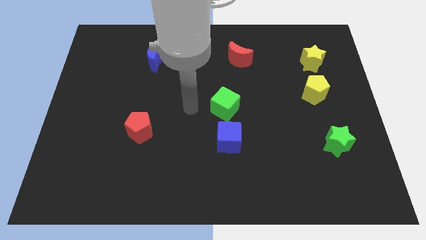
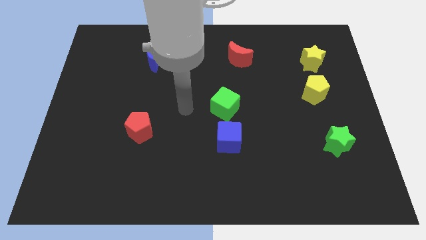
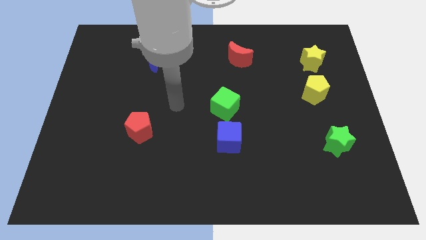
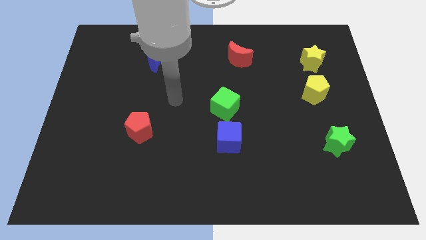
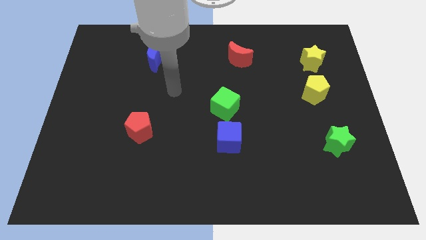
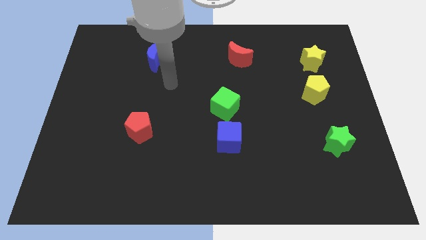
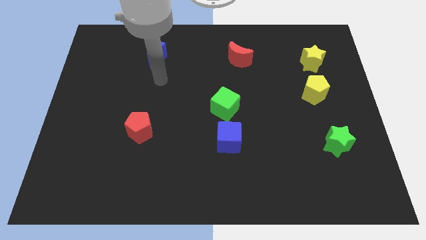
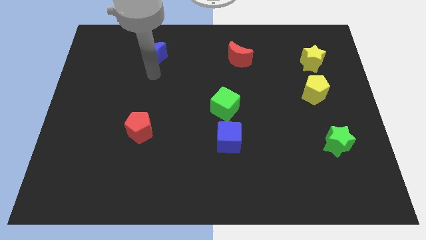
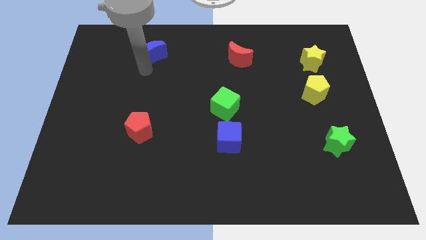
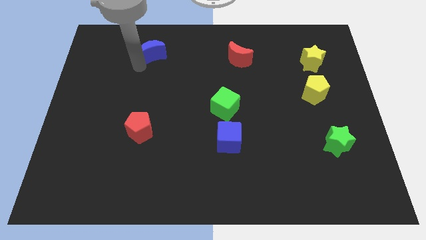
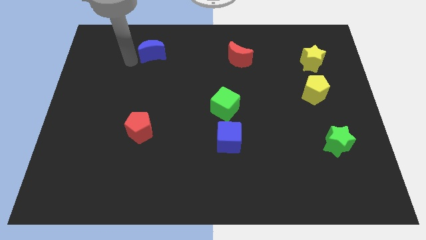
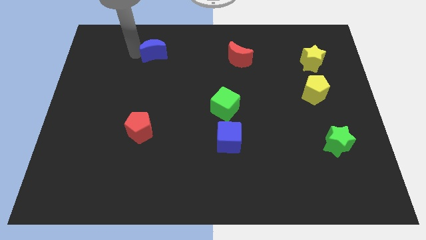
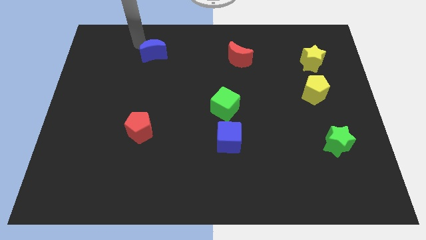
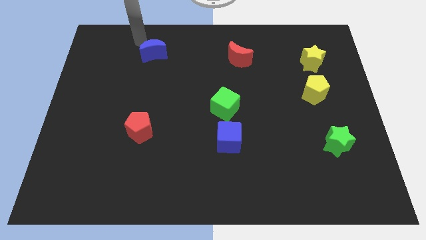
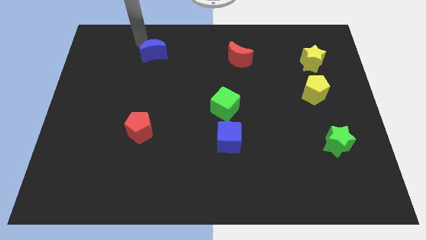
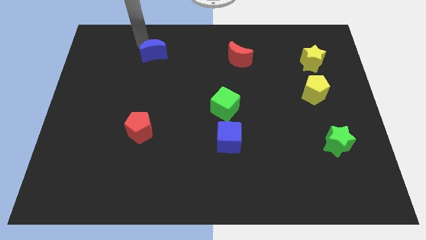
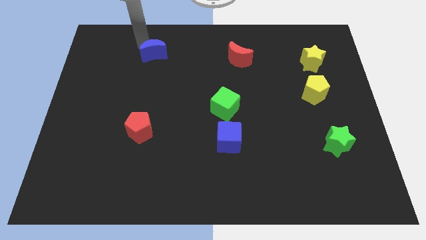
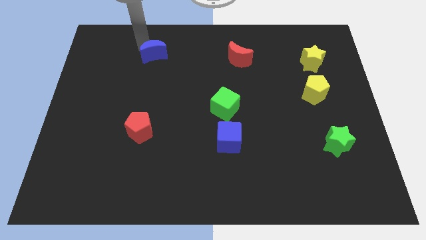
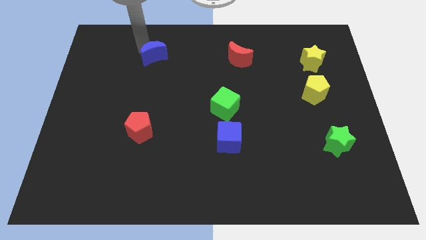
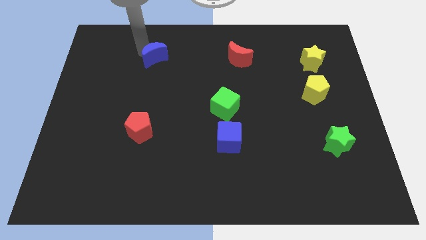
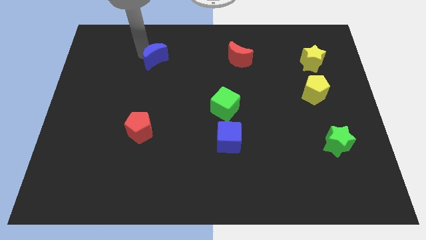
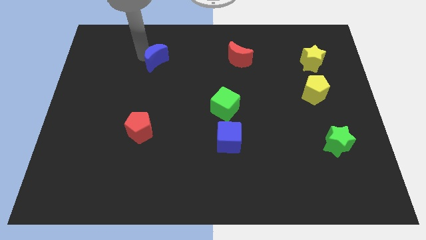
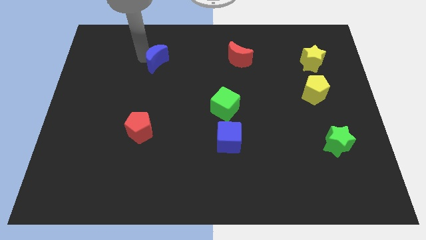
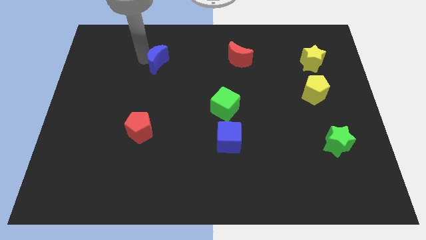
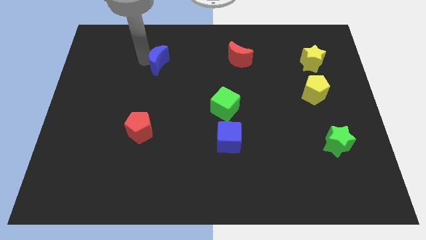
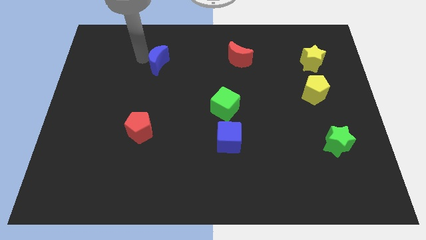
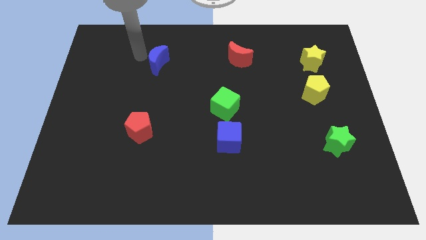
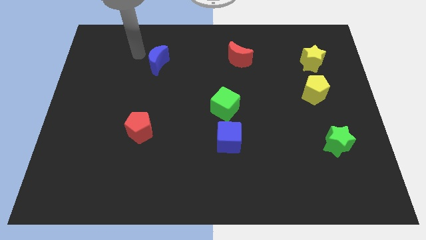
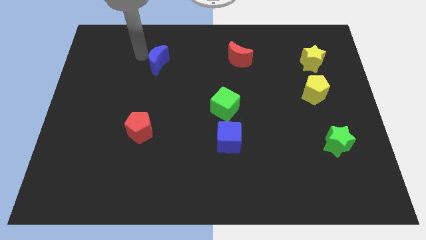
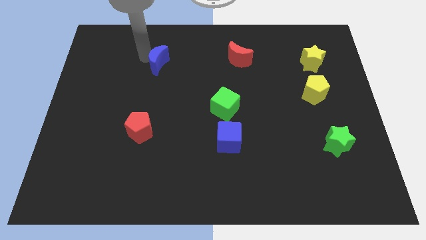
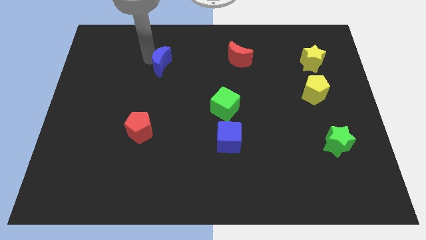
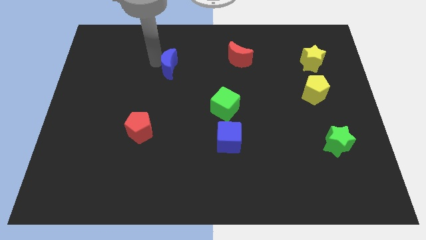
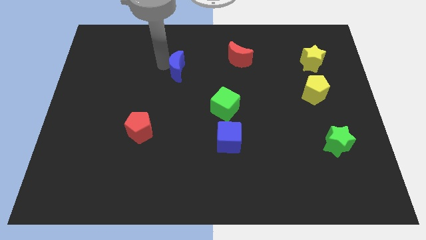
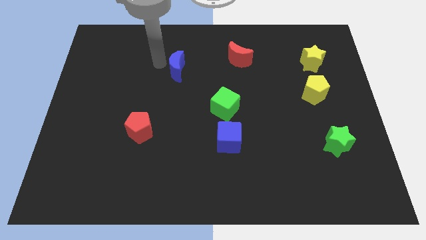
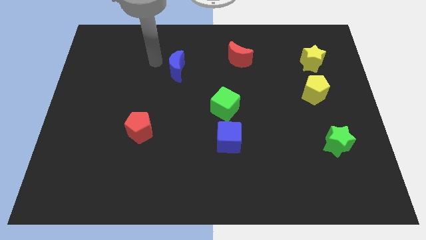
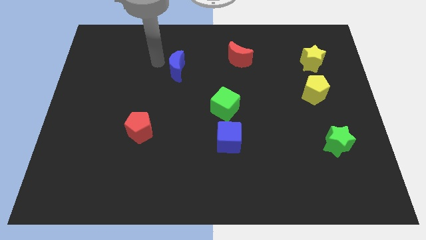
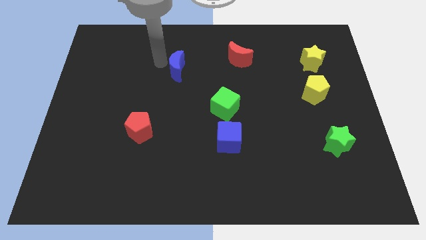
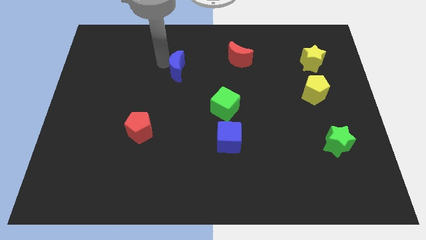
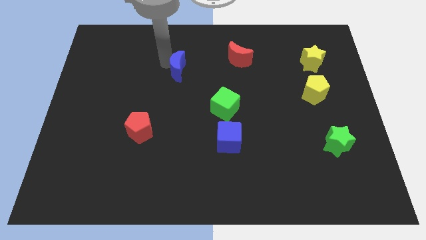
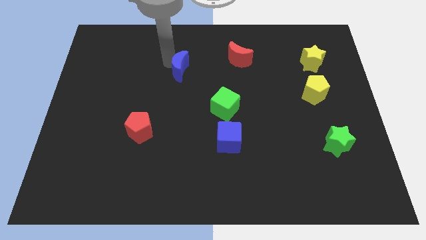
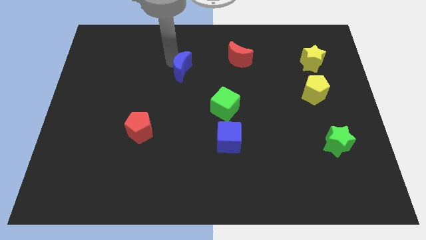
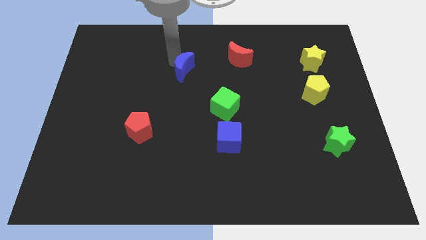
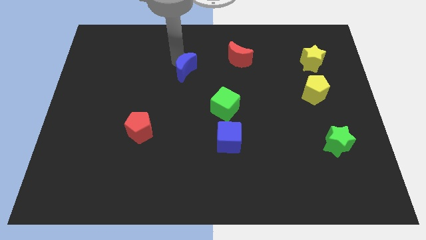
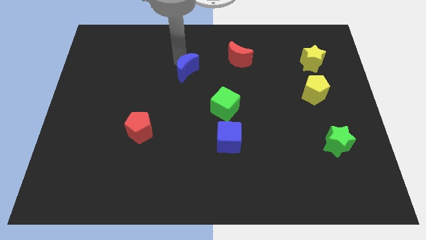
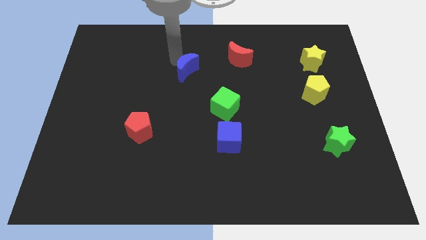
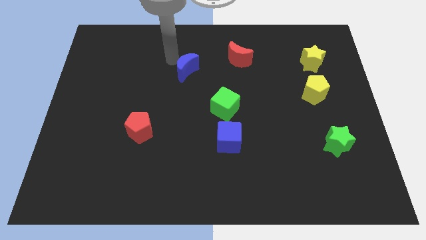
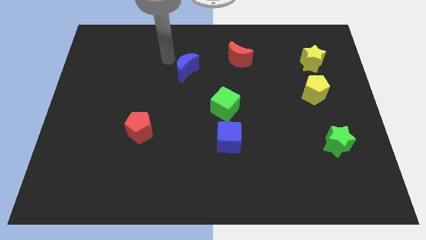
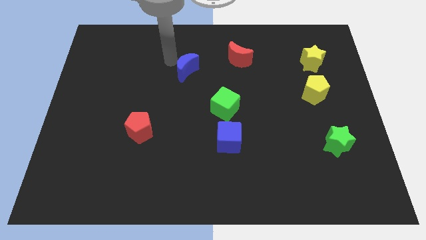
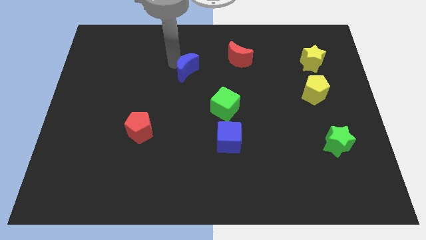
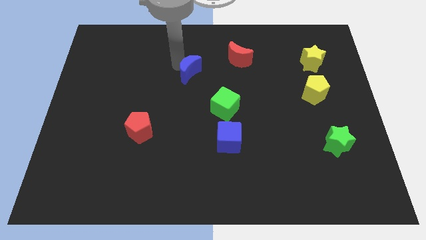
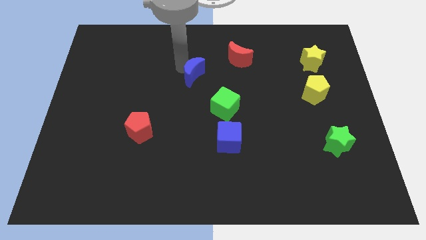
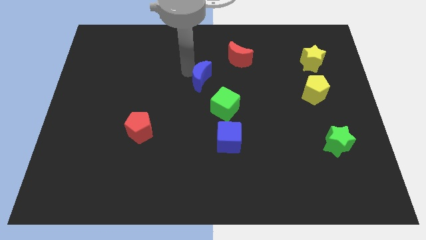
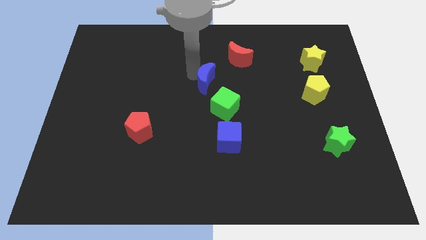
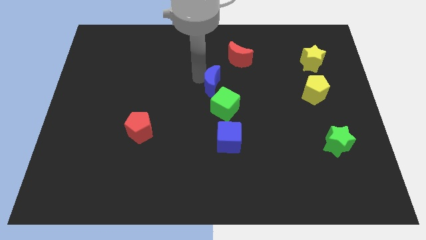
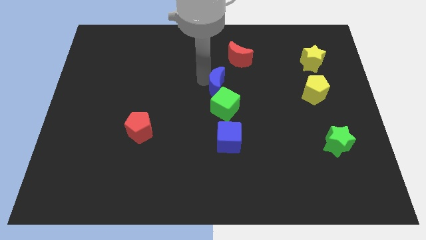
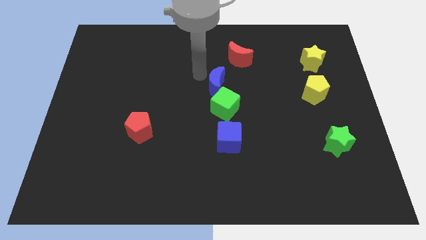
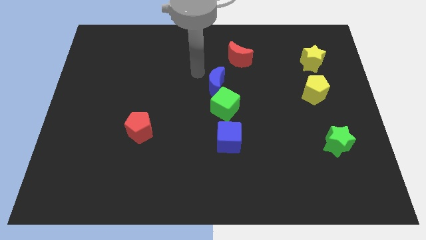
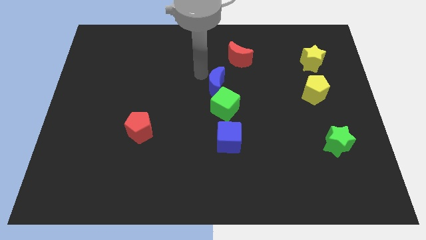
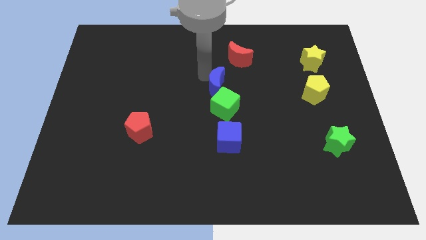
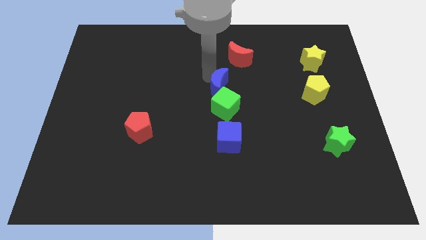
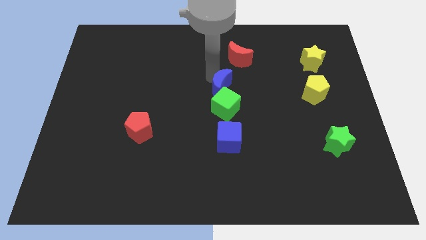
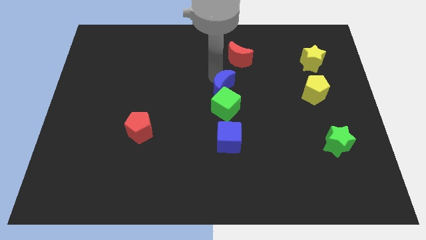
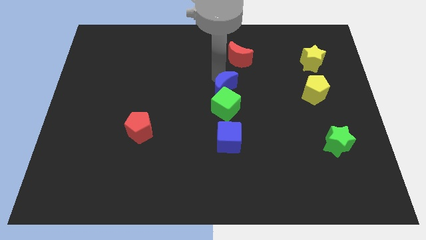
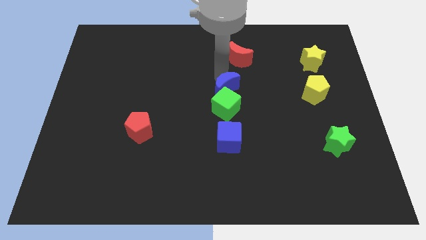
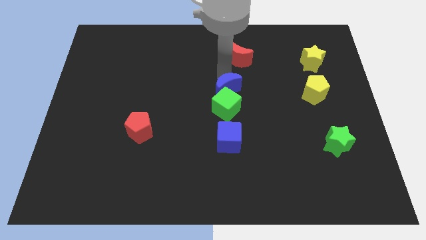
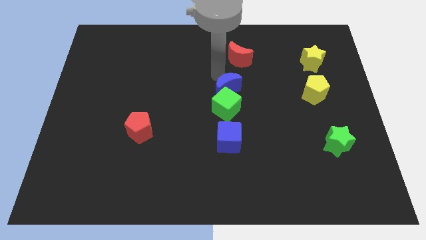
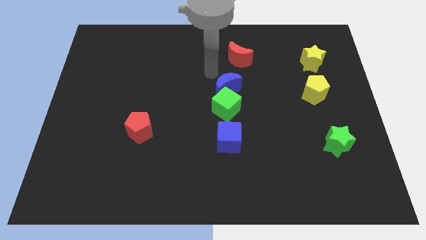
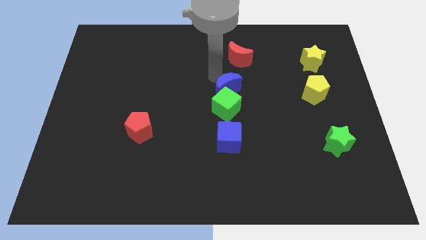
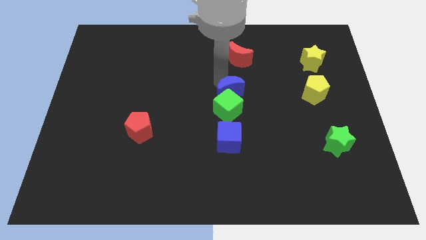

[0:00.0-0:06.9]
move the blue moon down and right

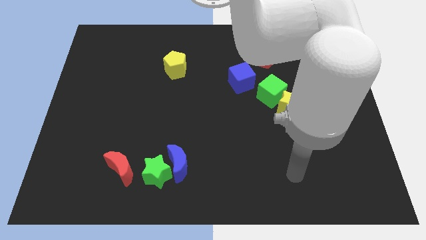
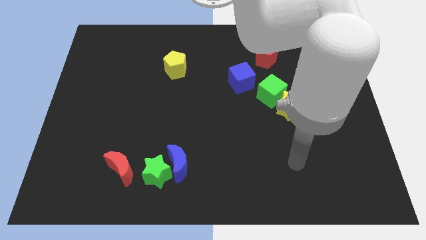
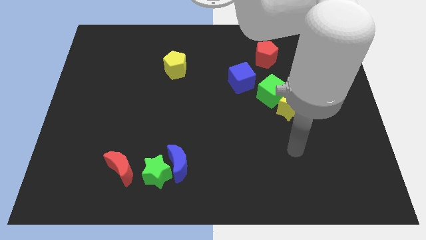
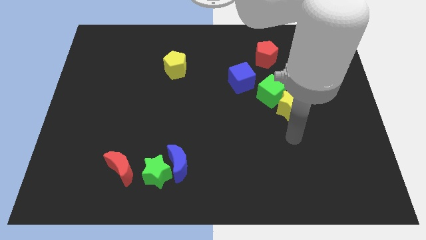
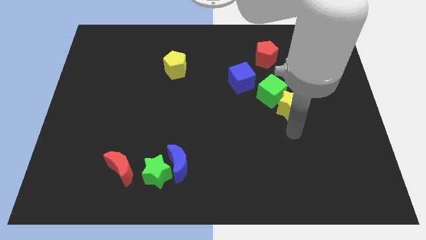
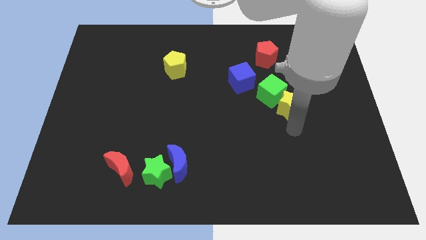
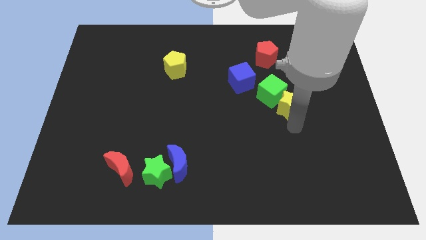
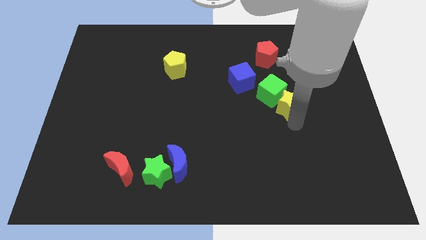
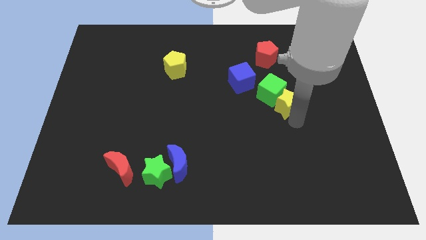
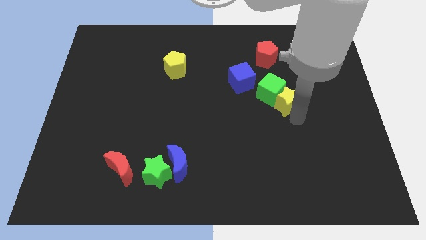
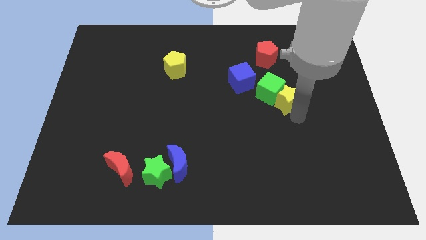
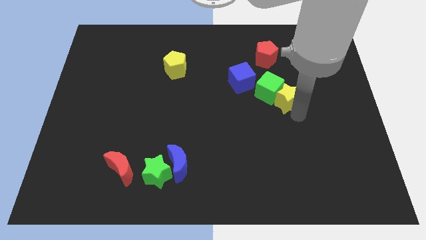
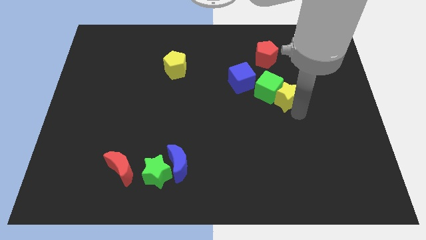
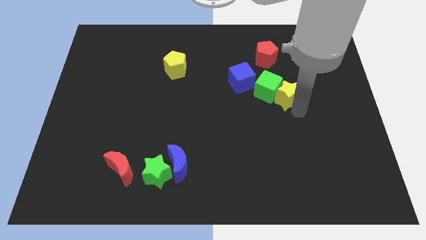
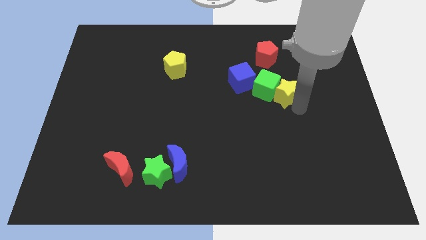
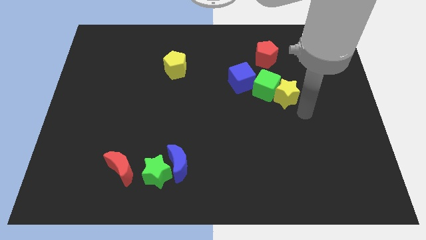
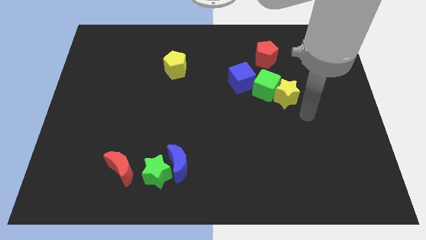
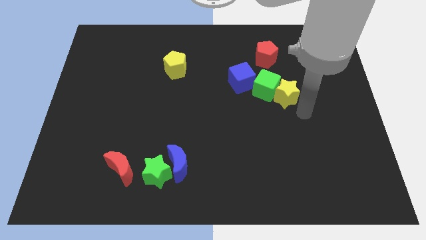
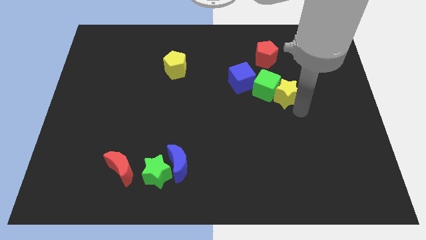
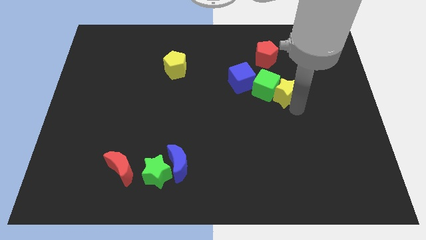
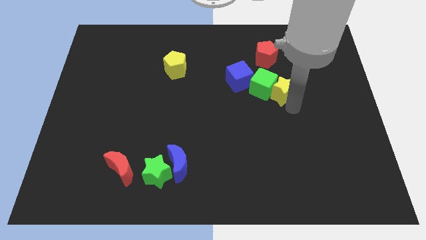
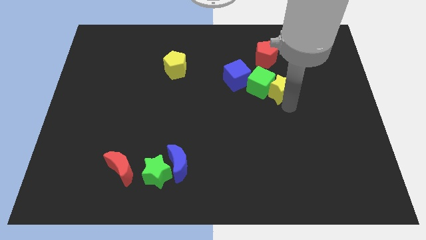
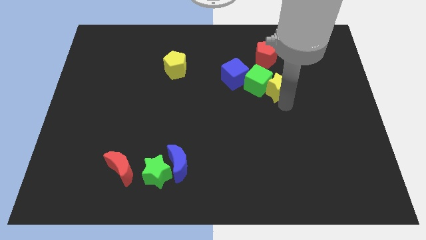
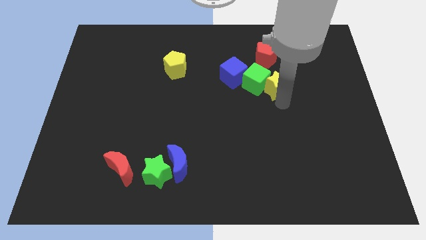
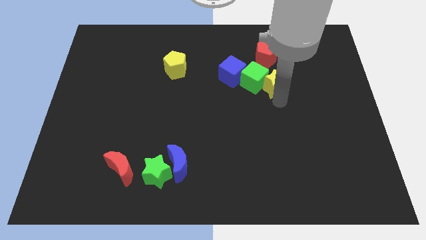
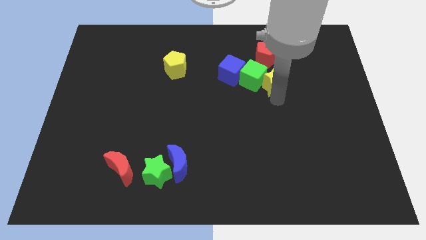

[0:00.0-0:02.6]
move the yellow star upwards and then left somewhat
